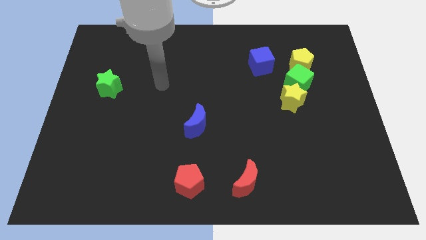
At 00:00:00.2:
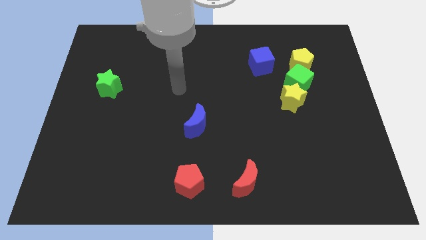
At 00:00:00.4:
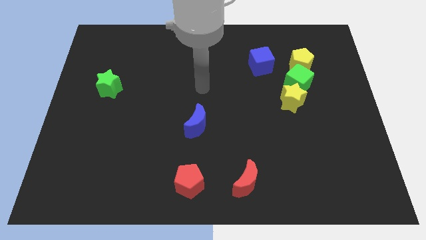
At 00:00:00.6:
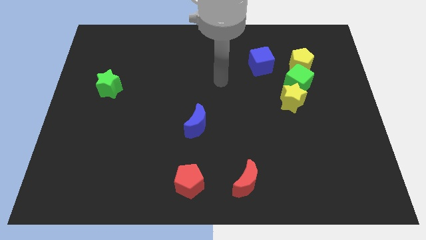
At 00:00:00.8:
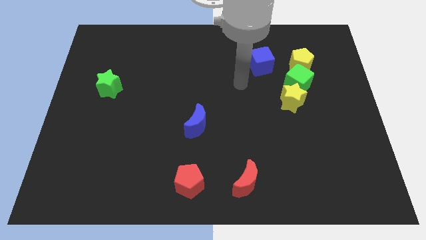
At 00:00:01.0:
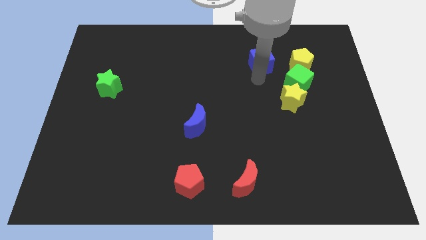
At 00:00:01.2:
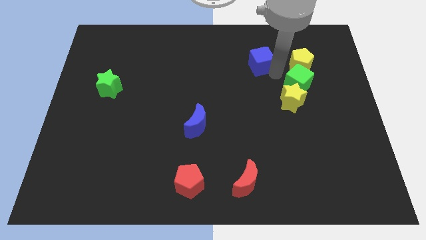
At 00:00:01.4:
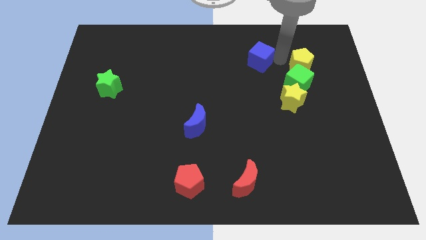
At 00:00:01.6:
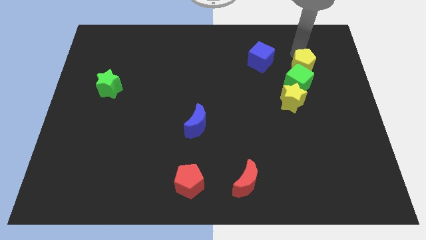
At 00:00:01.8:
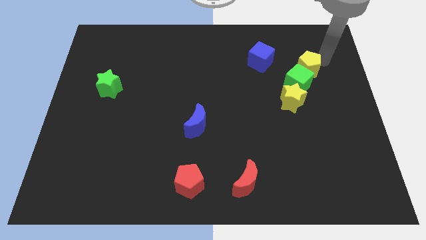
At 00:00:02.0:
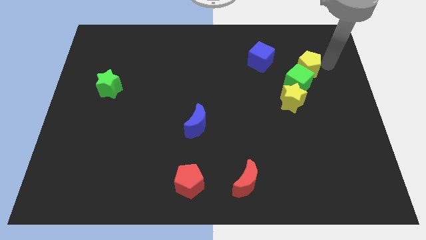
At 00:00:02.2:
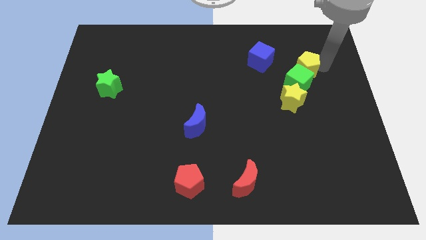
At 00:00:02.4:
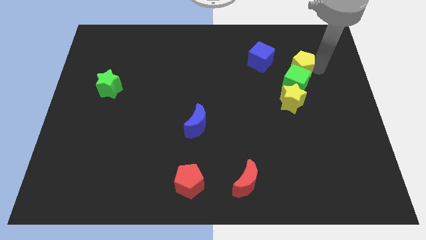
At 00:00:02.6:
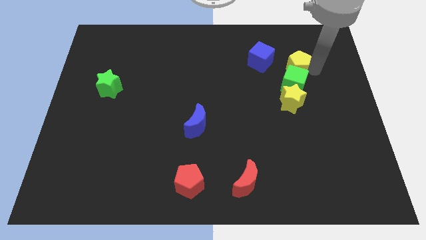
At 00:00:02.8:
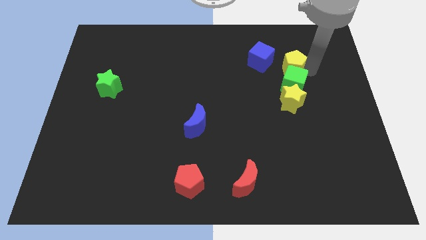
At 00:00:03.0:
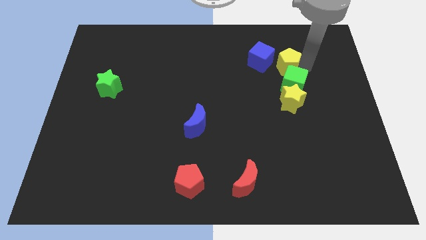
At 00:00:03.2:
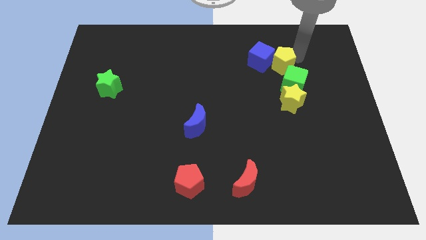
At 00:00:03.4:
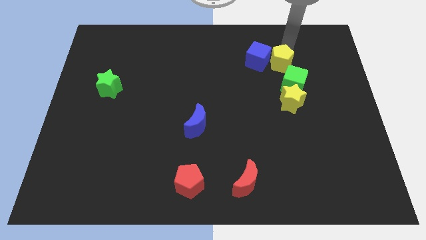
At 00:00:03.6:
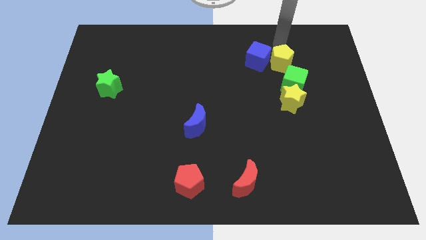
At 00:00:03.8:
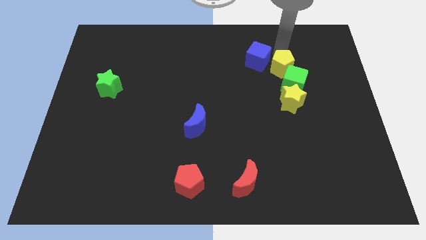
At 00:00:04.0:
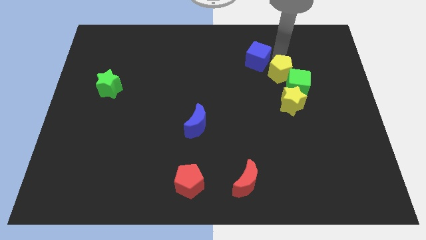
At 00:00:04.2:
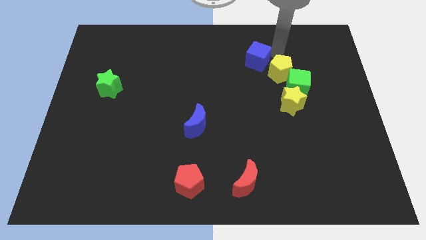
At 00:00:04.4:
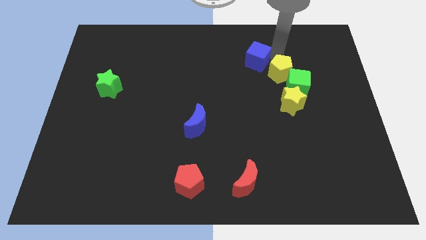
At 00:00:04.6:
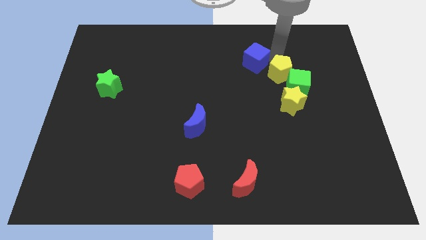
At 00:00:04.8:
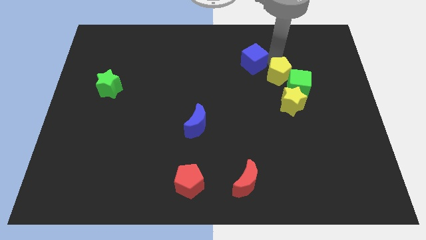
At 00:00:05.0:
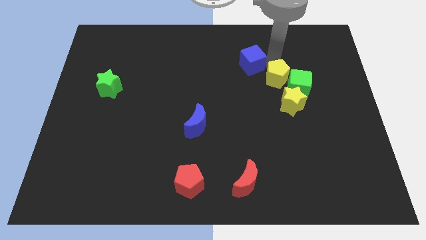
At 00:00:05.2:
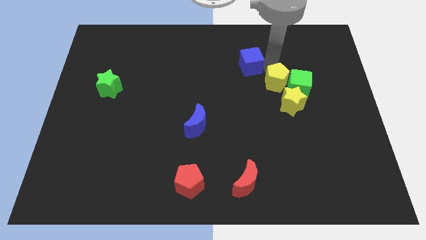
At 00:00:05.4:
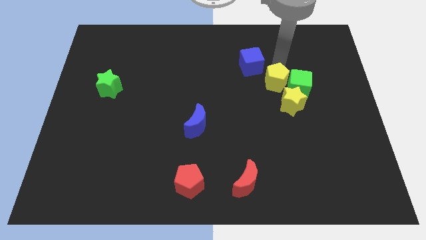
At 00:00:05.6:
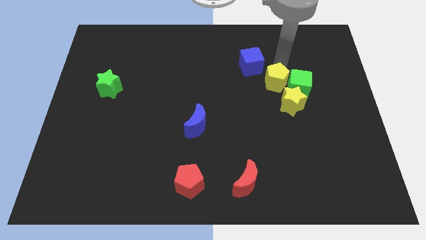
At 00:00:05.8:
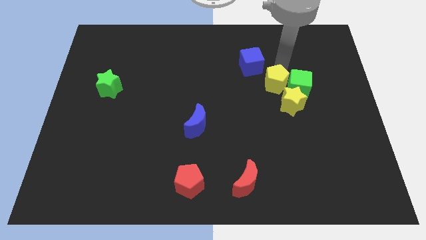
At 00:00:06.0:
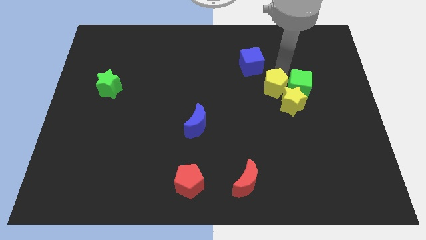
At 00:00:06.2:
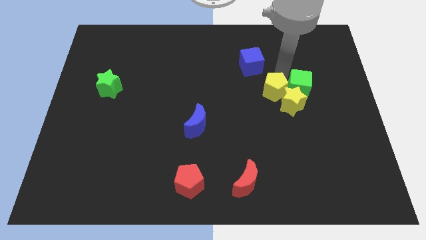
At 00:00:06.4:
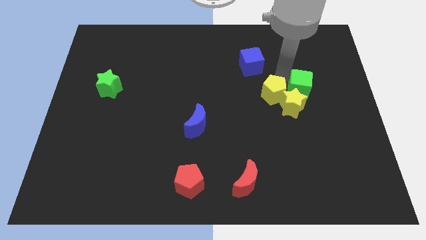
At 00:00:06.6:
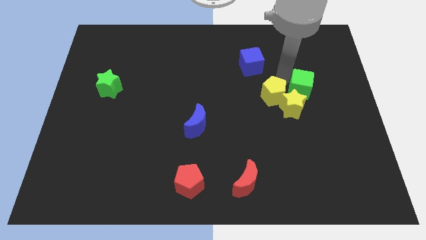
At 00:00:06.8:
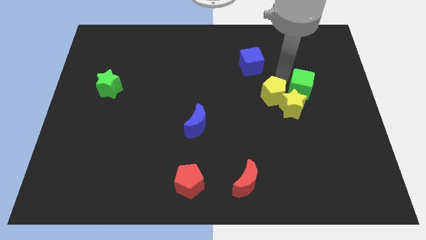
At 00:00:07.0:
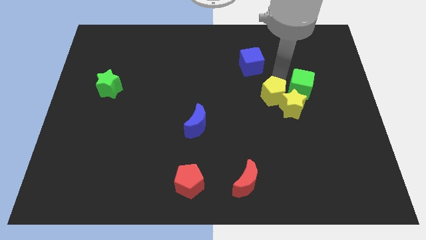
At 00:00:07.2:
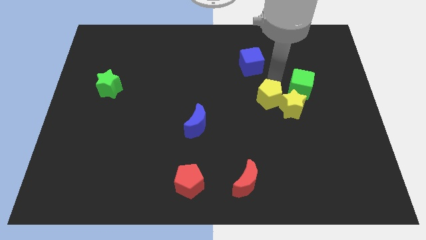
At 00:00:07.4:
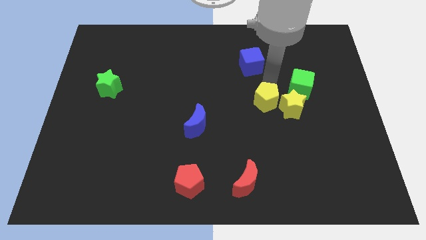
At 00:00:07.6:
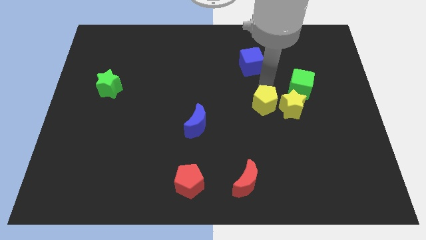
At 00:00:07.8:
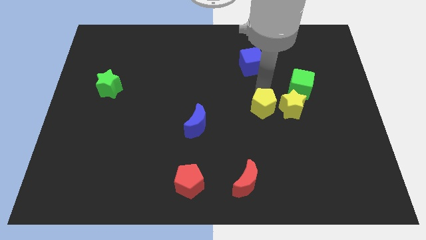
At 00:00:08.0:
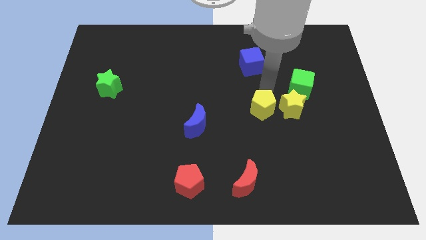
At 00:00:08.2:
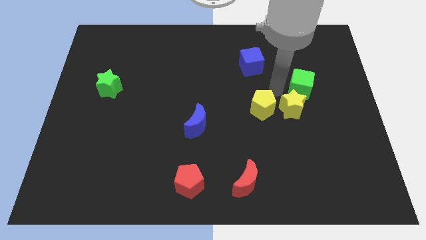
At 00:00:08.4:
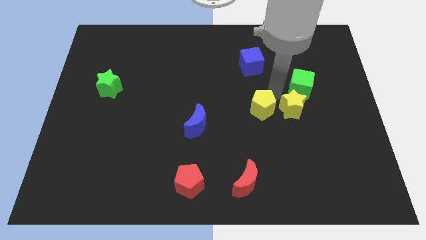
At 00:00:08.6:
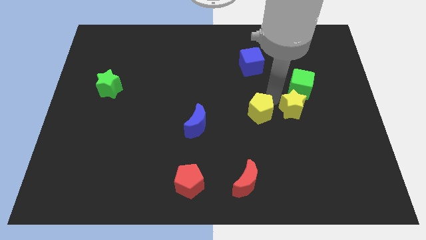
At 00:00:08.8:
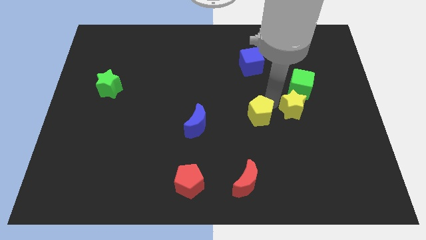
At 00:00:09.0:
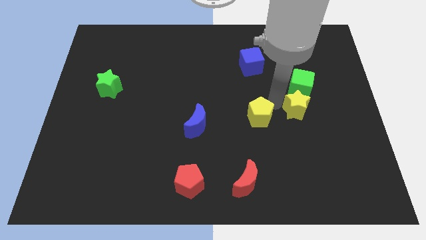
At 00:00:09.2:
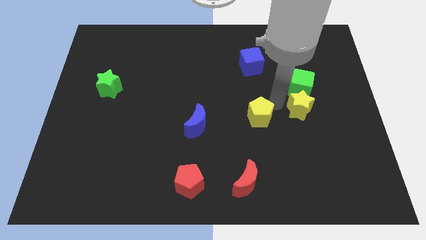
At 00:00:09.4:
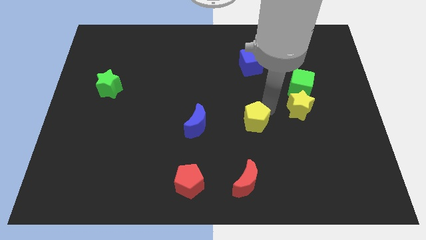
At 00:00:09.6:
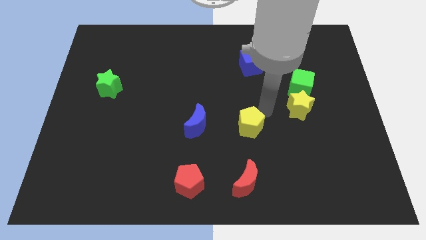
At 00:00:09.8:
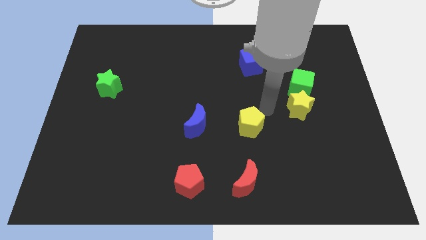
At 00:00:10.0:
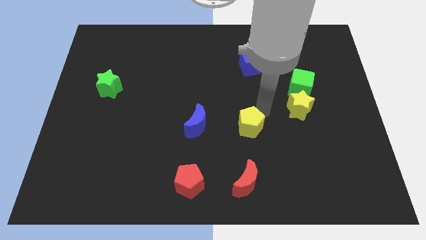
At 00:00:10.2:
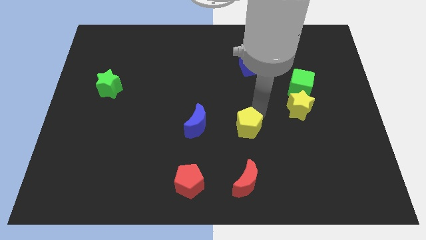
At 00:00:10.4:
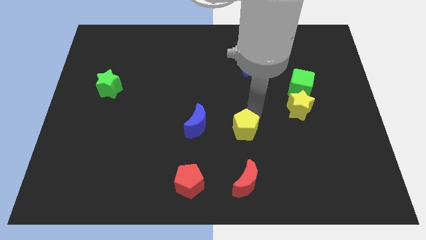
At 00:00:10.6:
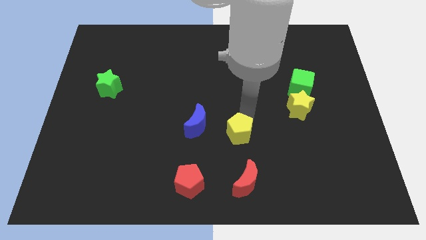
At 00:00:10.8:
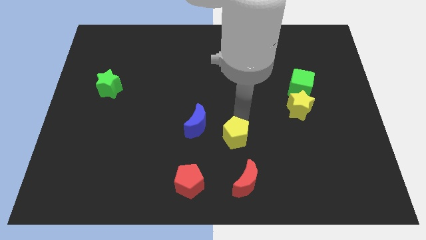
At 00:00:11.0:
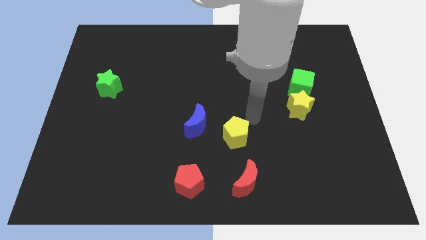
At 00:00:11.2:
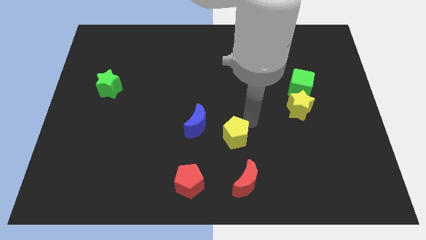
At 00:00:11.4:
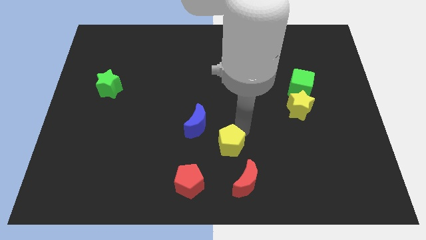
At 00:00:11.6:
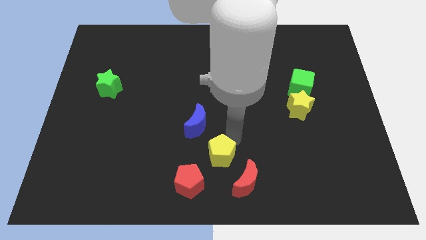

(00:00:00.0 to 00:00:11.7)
push the yellow pentagon to the bottom

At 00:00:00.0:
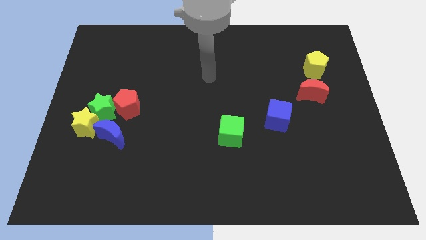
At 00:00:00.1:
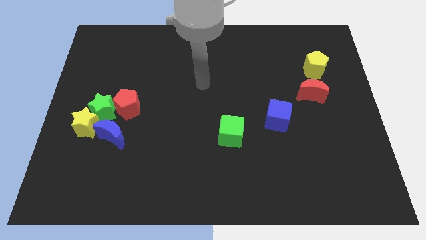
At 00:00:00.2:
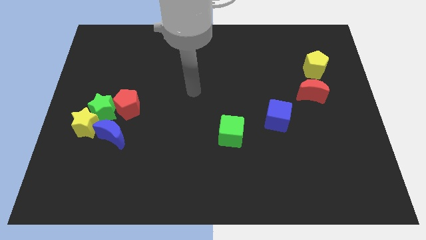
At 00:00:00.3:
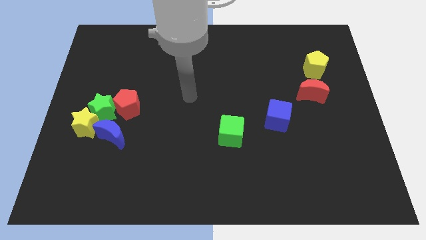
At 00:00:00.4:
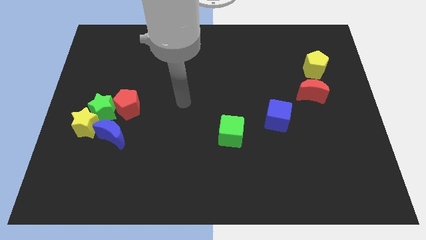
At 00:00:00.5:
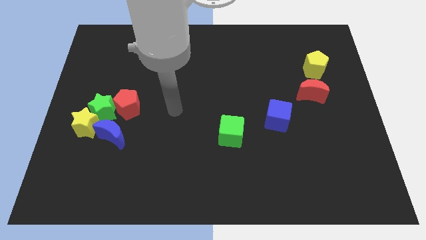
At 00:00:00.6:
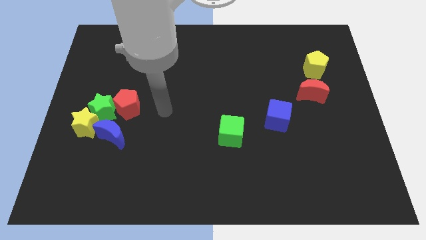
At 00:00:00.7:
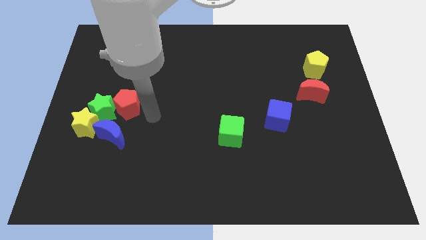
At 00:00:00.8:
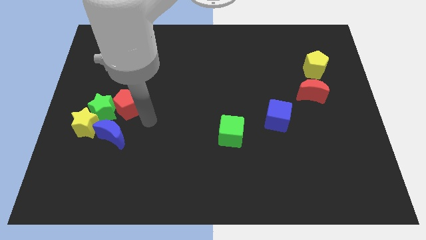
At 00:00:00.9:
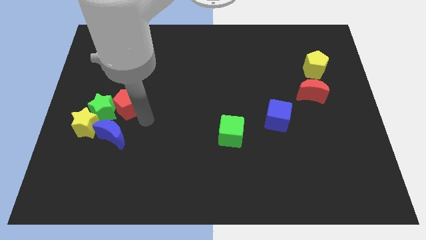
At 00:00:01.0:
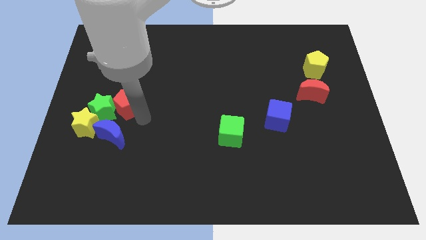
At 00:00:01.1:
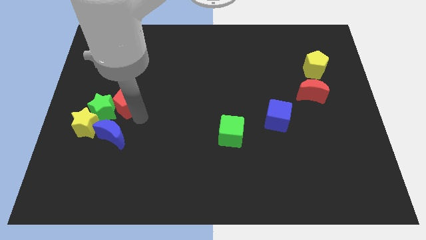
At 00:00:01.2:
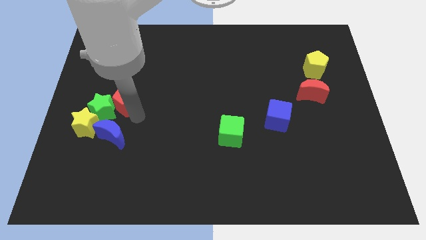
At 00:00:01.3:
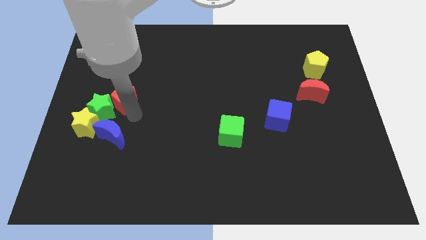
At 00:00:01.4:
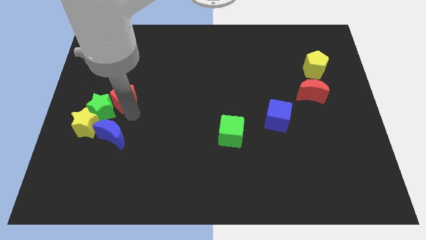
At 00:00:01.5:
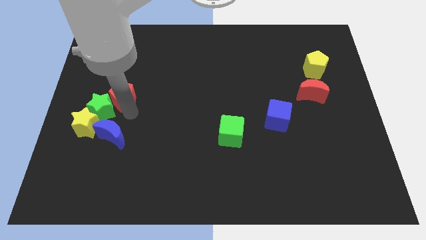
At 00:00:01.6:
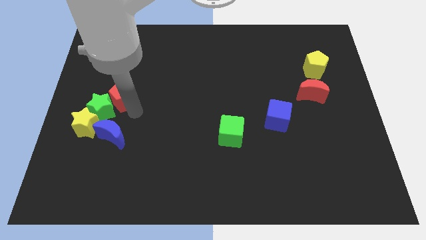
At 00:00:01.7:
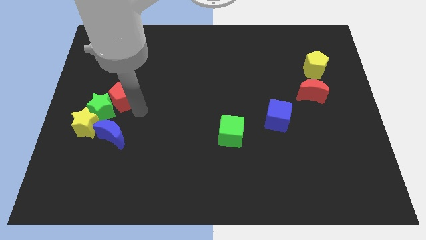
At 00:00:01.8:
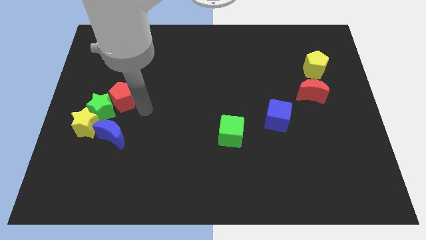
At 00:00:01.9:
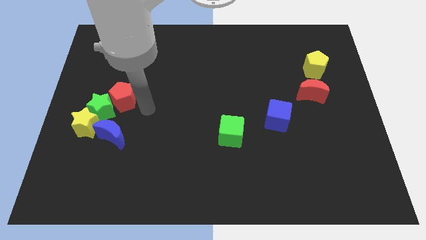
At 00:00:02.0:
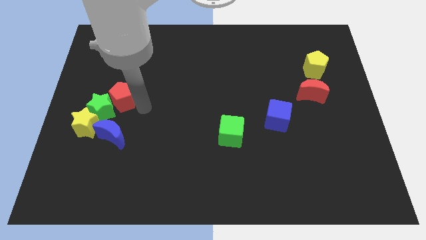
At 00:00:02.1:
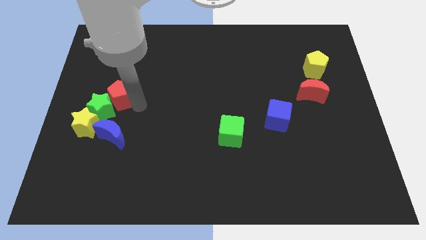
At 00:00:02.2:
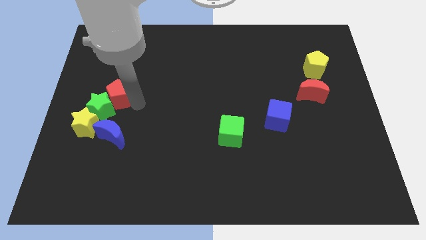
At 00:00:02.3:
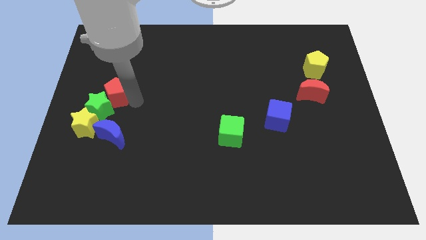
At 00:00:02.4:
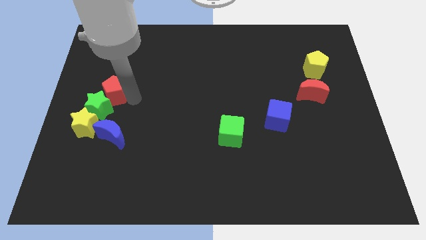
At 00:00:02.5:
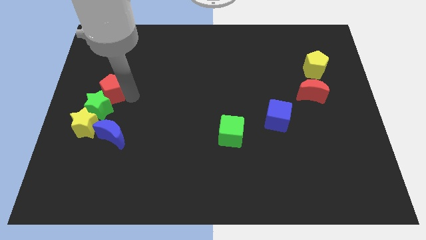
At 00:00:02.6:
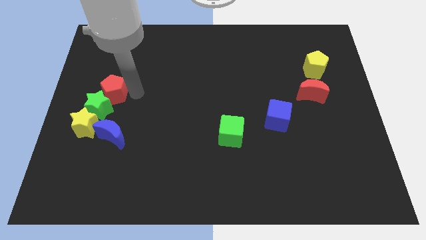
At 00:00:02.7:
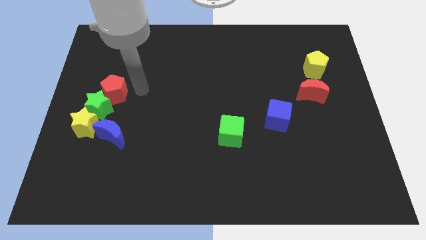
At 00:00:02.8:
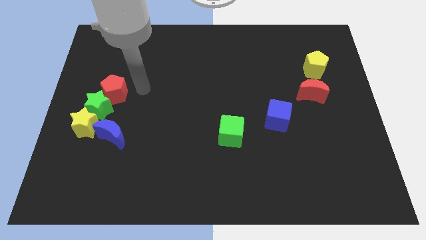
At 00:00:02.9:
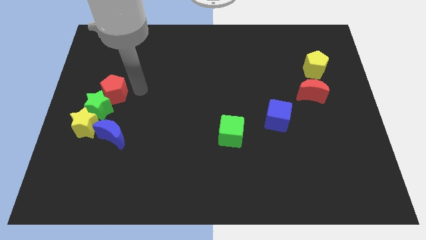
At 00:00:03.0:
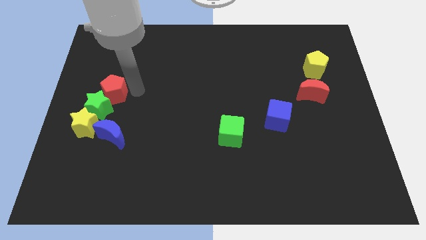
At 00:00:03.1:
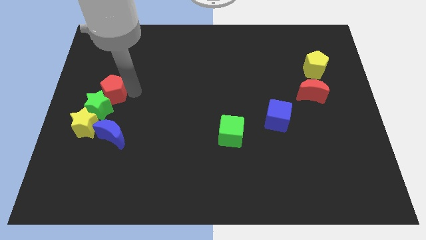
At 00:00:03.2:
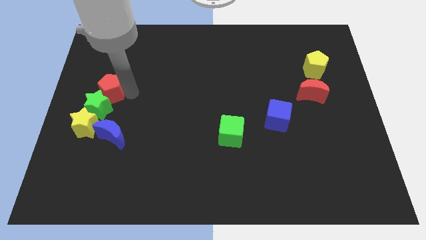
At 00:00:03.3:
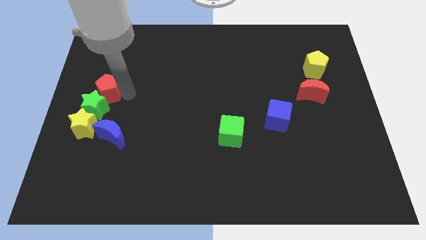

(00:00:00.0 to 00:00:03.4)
put the red pentagon to the center left
